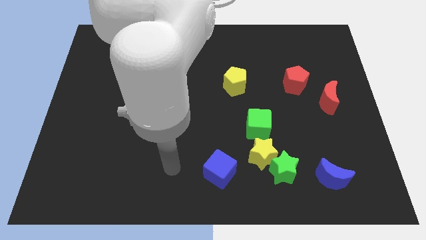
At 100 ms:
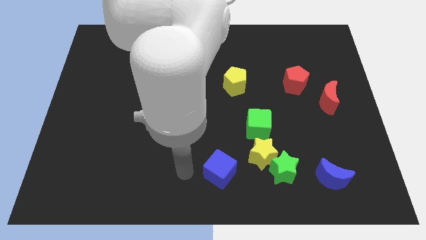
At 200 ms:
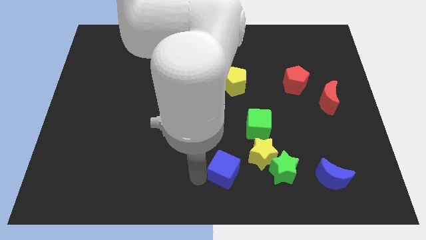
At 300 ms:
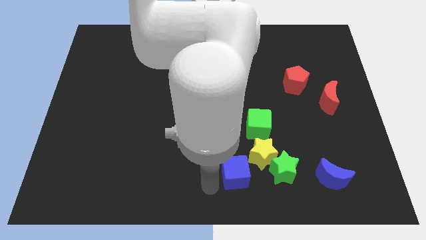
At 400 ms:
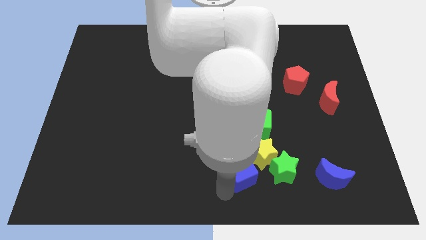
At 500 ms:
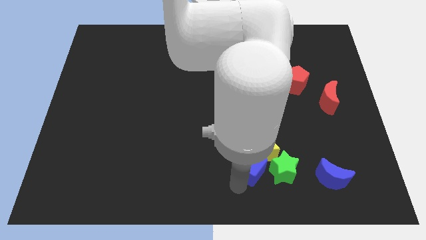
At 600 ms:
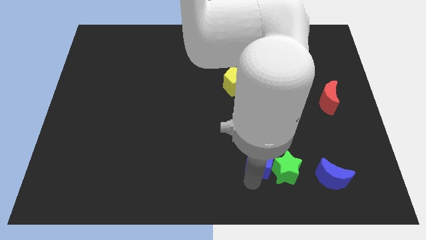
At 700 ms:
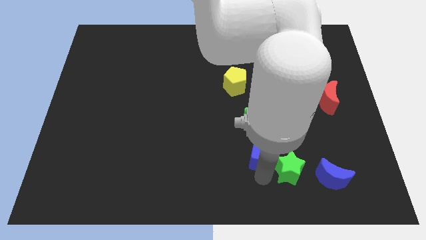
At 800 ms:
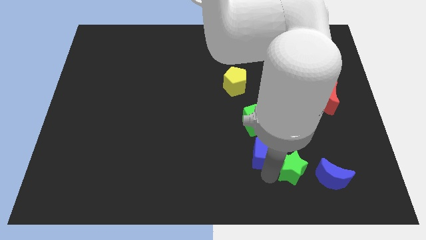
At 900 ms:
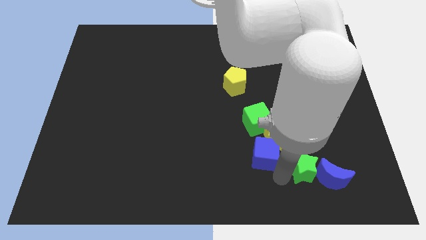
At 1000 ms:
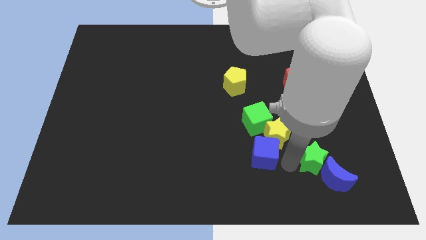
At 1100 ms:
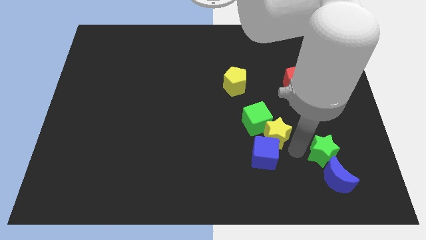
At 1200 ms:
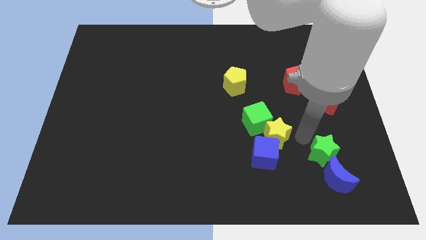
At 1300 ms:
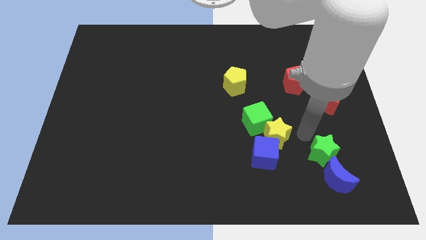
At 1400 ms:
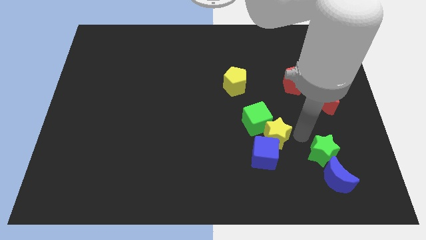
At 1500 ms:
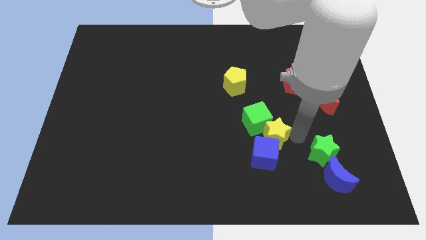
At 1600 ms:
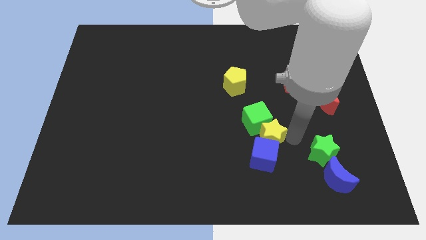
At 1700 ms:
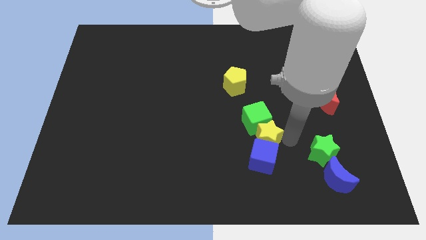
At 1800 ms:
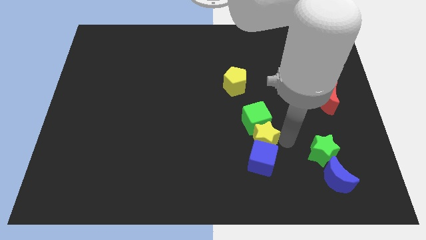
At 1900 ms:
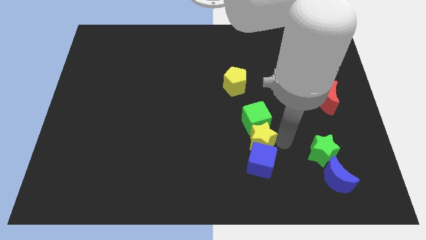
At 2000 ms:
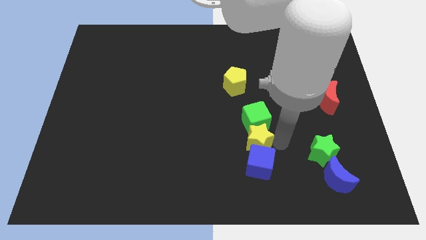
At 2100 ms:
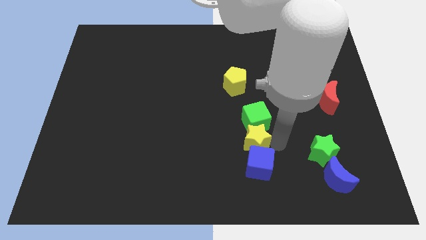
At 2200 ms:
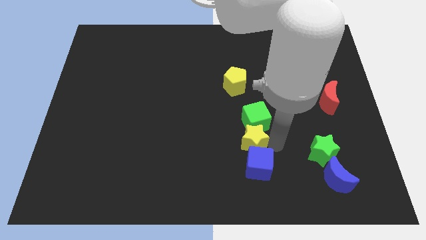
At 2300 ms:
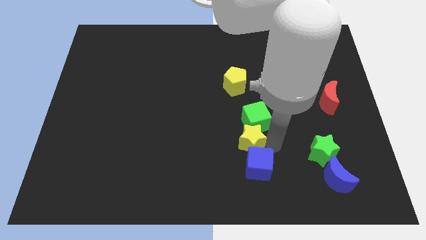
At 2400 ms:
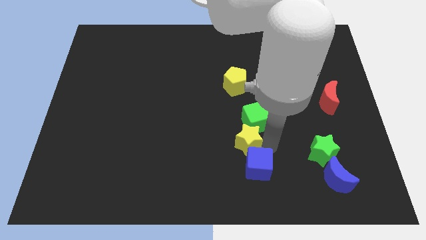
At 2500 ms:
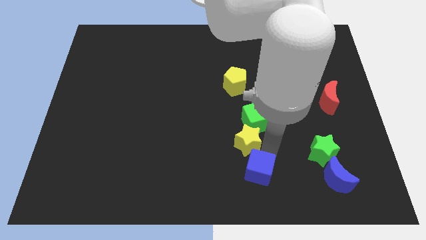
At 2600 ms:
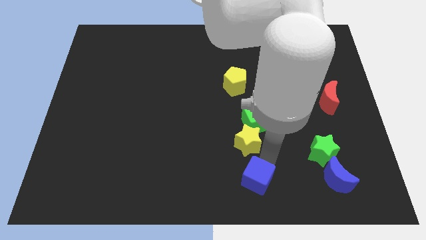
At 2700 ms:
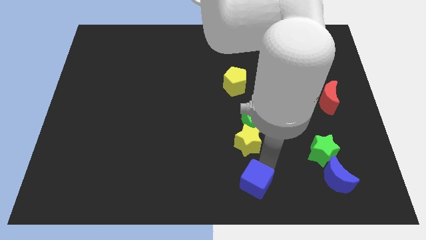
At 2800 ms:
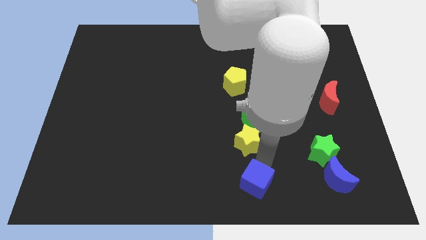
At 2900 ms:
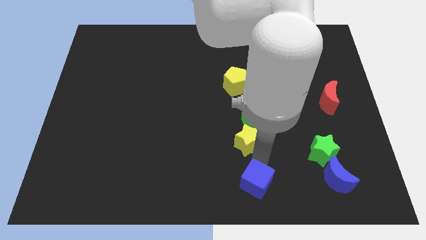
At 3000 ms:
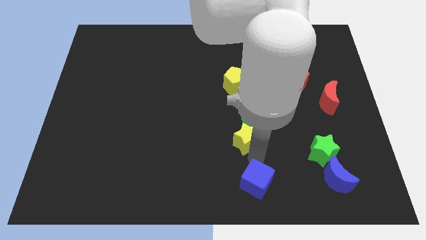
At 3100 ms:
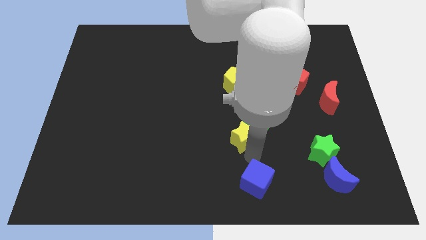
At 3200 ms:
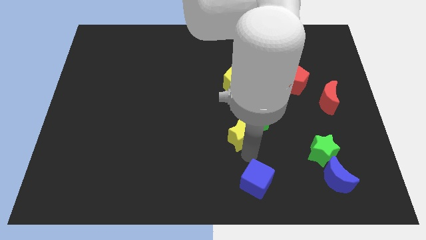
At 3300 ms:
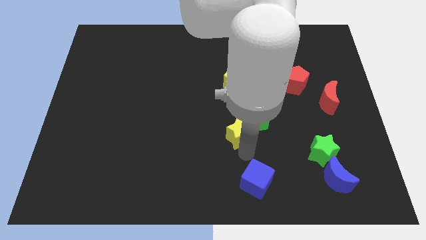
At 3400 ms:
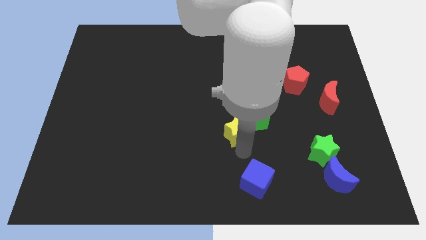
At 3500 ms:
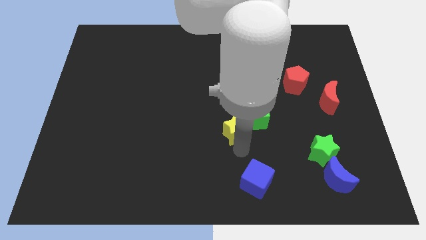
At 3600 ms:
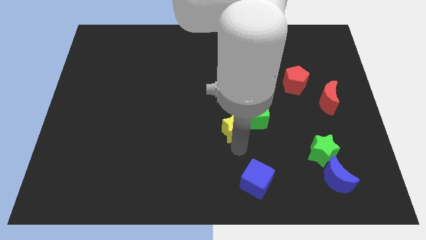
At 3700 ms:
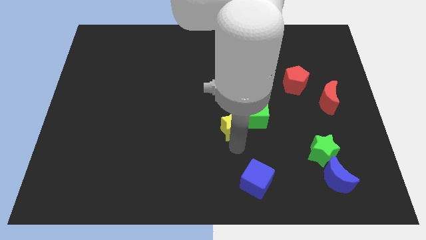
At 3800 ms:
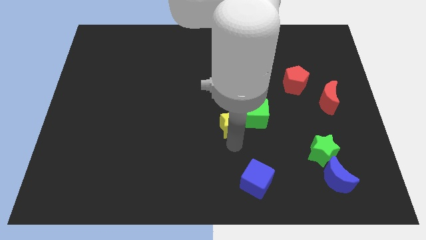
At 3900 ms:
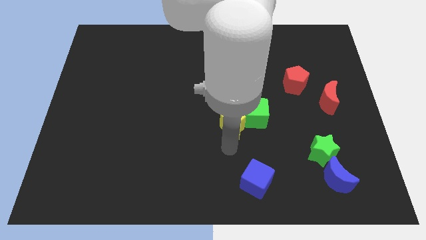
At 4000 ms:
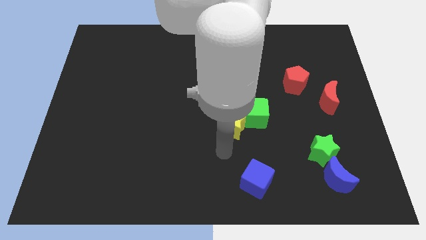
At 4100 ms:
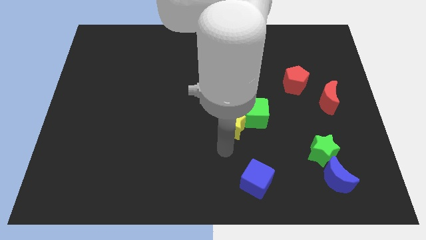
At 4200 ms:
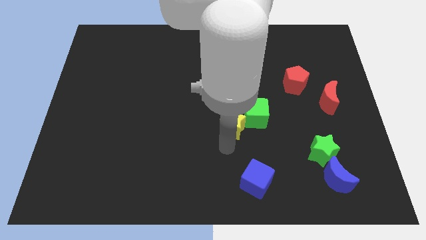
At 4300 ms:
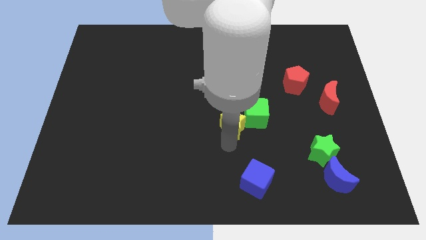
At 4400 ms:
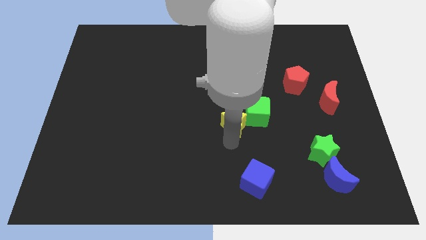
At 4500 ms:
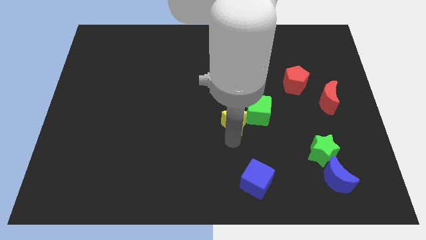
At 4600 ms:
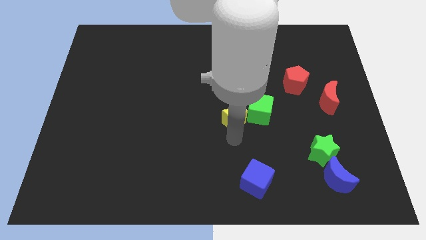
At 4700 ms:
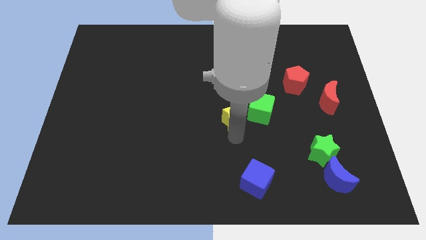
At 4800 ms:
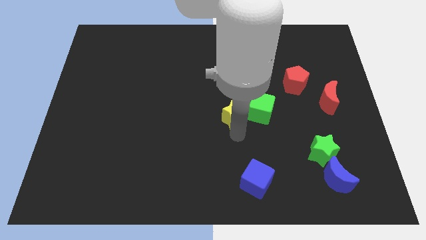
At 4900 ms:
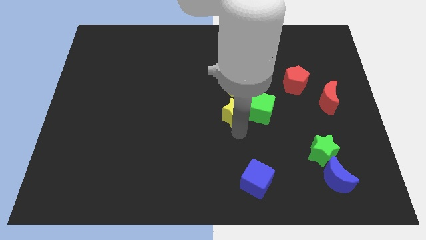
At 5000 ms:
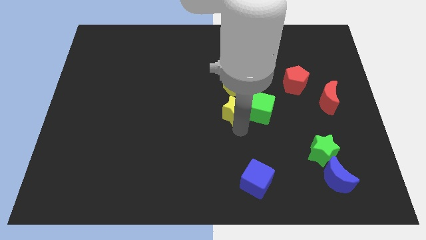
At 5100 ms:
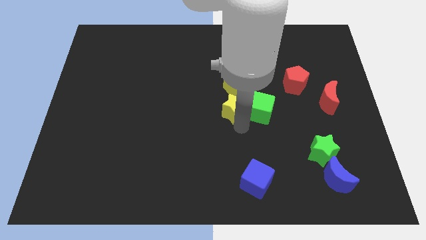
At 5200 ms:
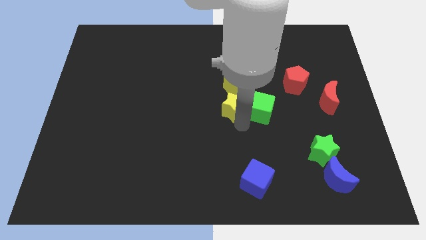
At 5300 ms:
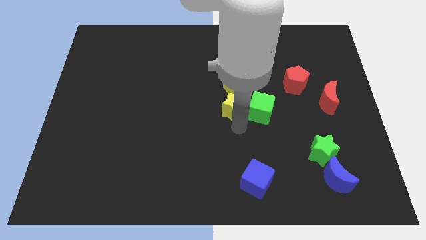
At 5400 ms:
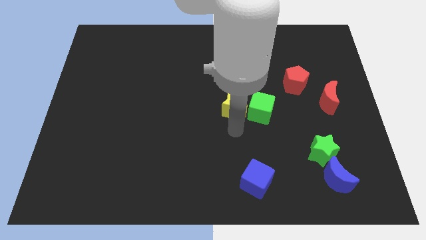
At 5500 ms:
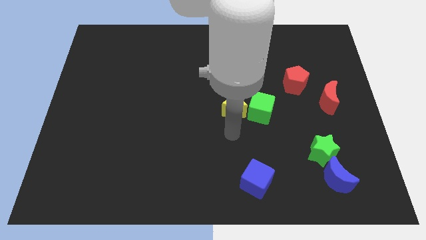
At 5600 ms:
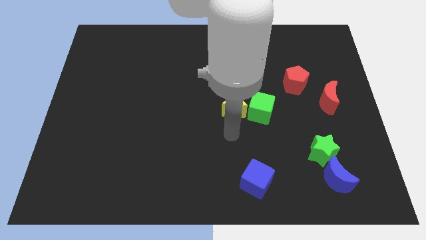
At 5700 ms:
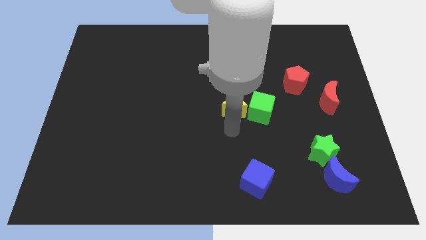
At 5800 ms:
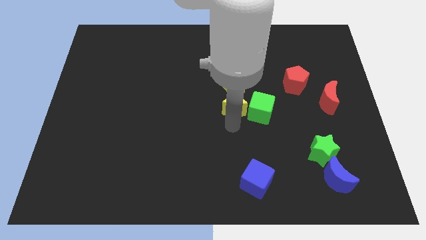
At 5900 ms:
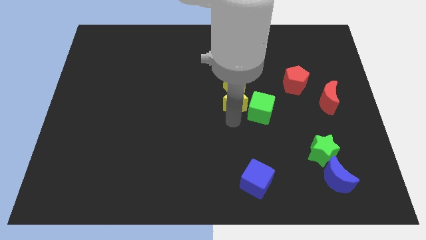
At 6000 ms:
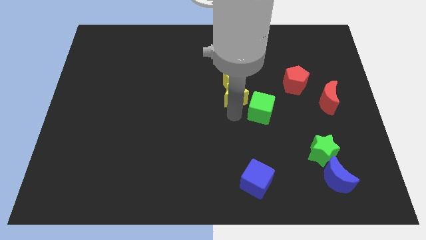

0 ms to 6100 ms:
slide the yellow star next to the yellow pentagon

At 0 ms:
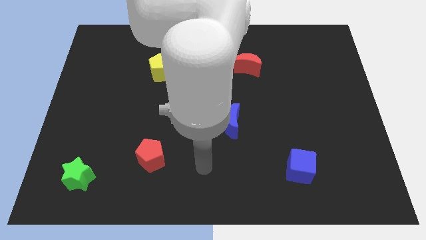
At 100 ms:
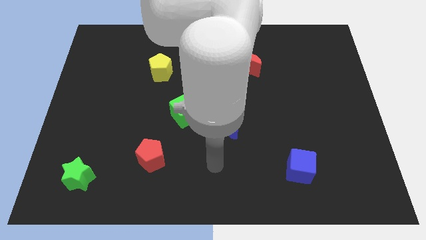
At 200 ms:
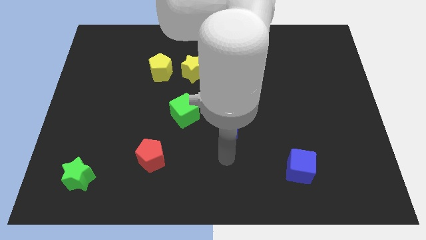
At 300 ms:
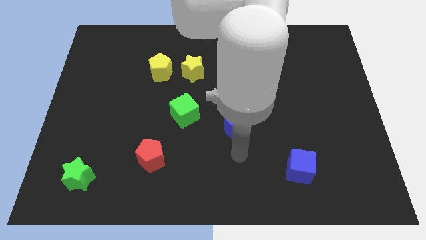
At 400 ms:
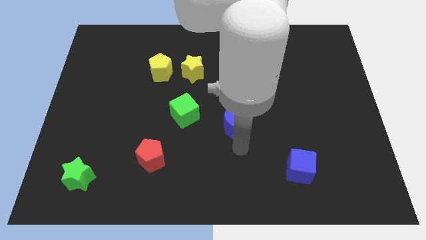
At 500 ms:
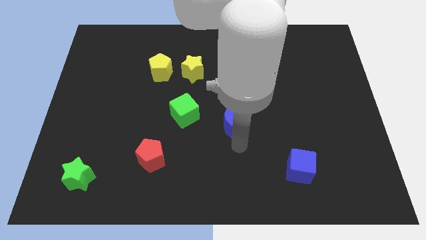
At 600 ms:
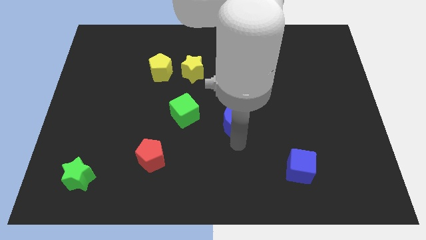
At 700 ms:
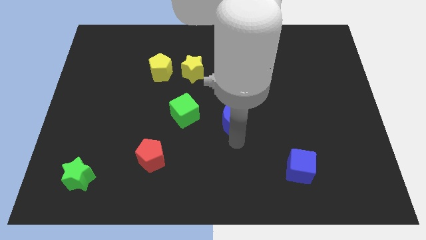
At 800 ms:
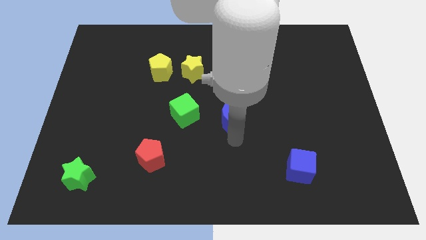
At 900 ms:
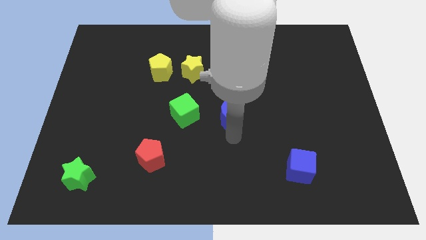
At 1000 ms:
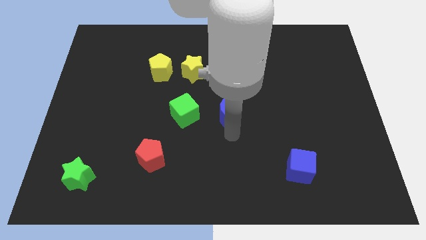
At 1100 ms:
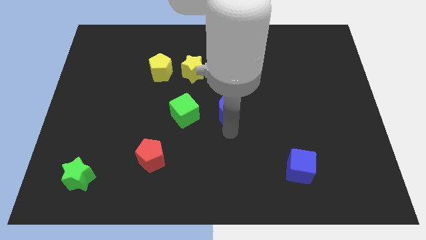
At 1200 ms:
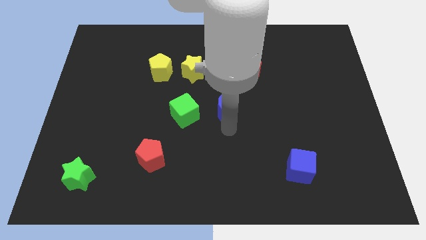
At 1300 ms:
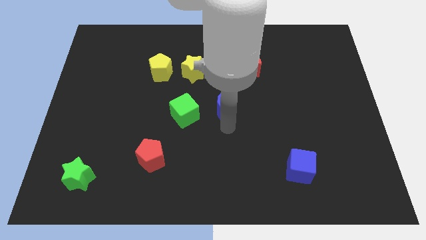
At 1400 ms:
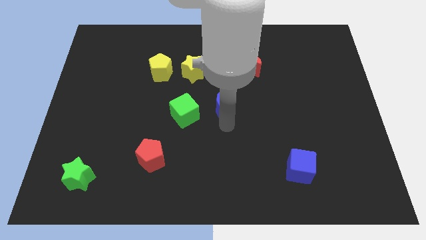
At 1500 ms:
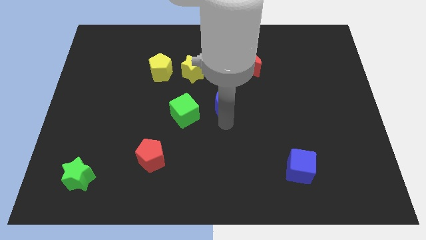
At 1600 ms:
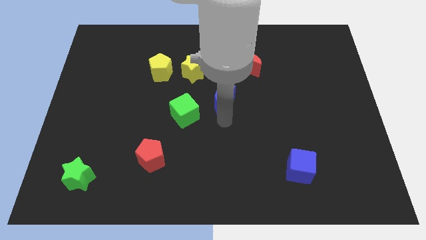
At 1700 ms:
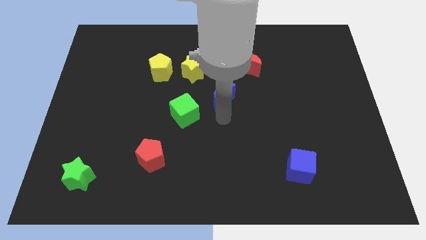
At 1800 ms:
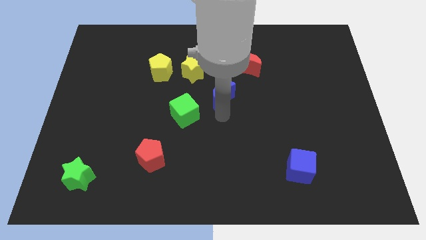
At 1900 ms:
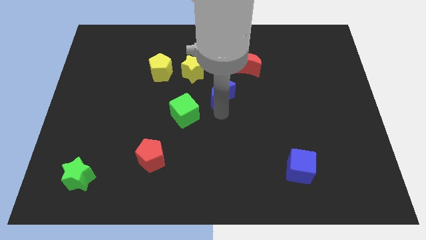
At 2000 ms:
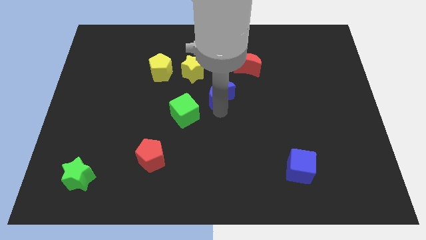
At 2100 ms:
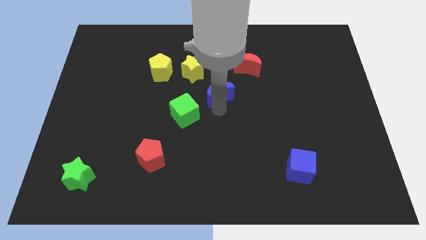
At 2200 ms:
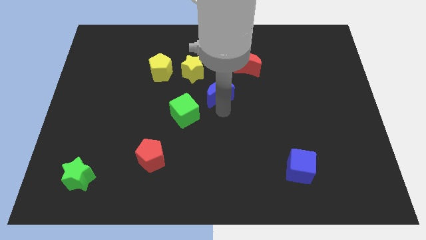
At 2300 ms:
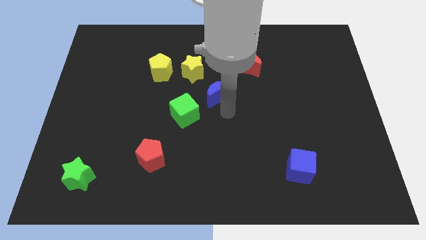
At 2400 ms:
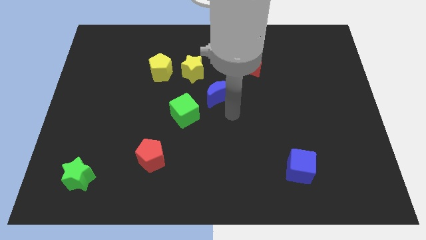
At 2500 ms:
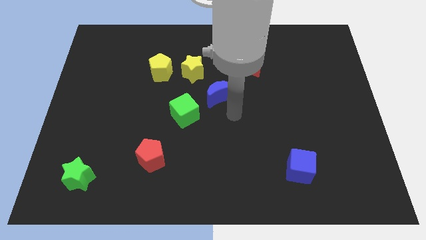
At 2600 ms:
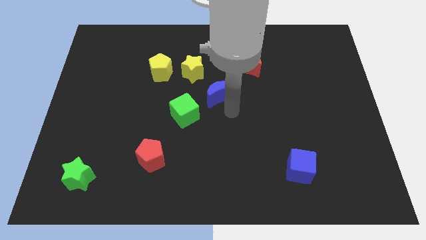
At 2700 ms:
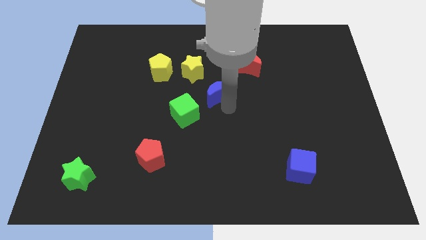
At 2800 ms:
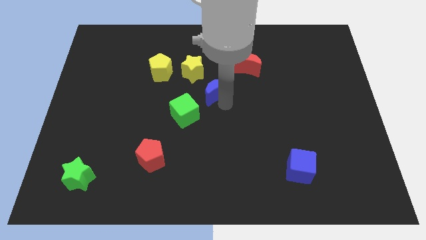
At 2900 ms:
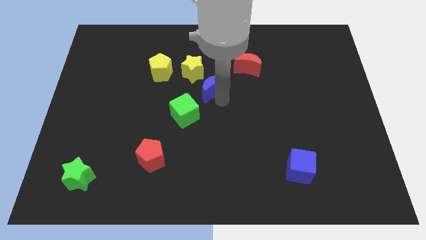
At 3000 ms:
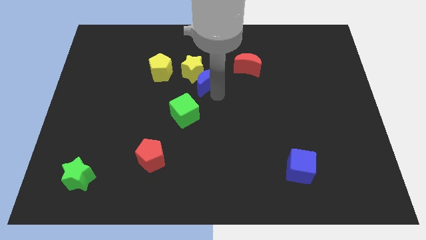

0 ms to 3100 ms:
slide the blue moon close to the yellow star
